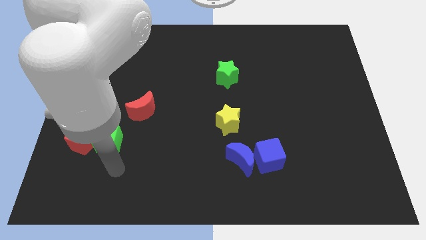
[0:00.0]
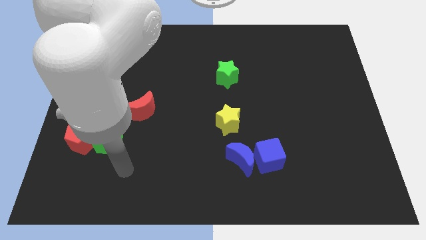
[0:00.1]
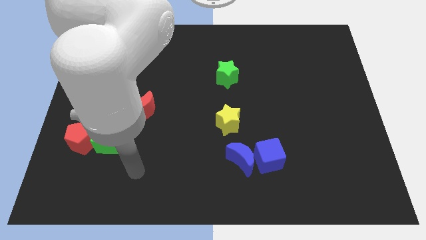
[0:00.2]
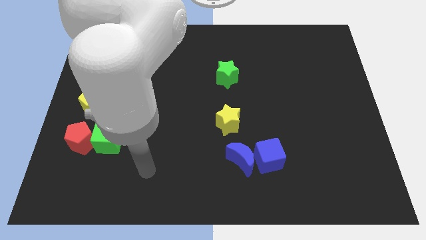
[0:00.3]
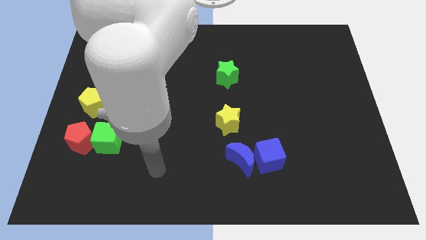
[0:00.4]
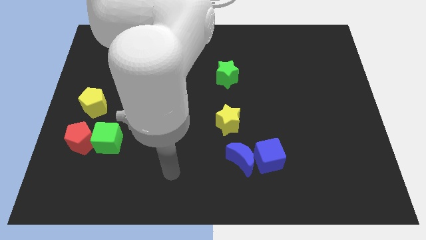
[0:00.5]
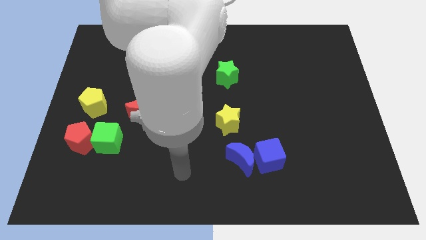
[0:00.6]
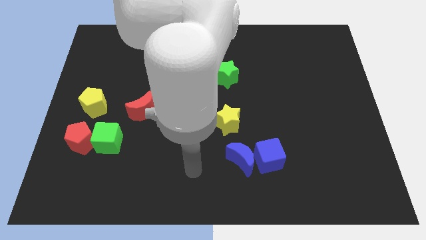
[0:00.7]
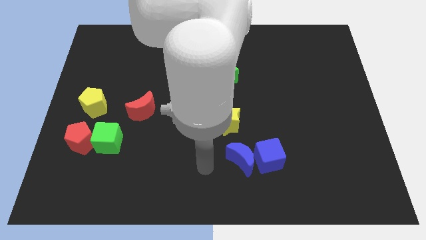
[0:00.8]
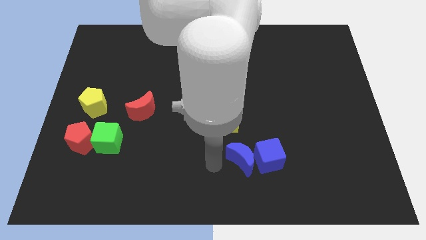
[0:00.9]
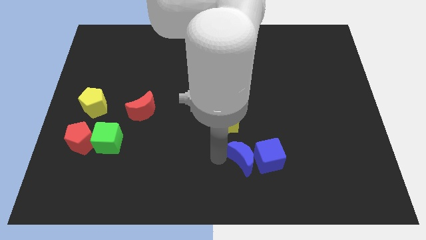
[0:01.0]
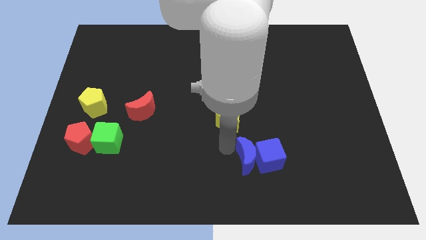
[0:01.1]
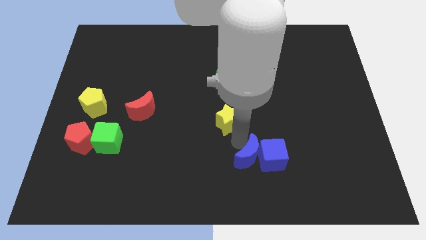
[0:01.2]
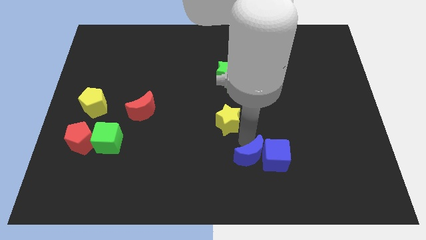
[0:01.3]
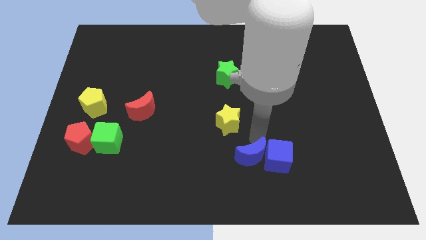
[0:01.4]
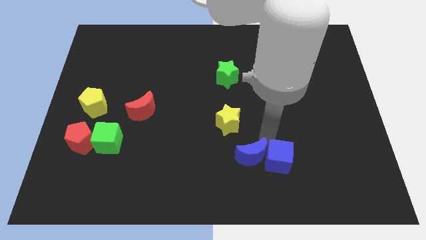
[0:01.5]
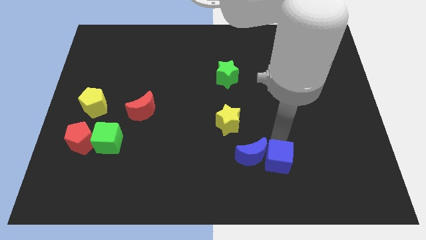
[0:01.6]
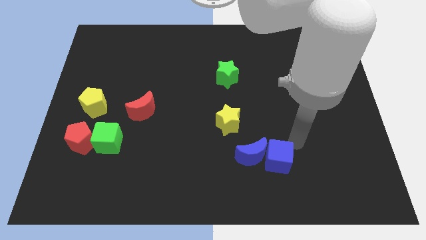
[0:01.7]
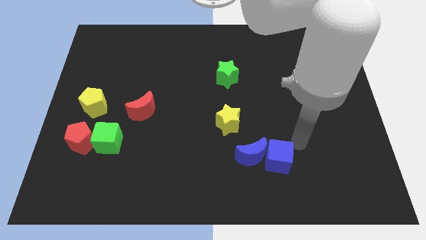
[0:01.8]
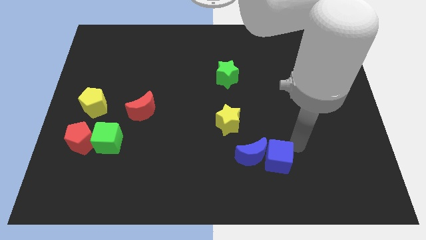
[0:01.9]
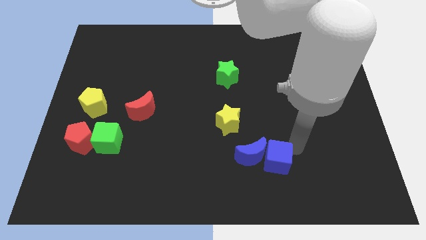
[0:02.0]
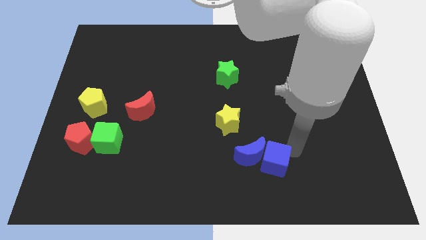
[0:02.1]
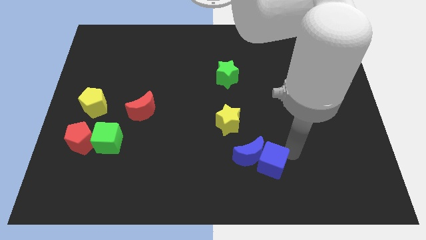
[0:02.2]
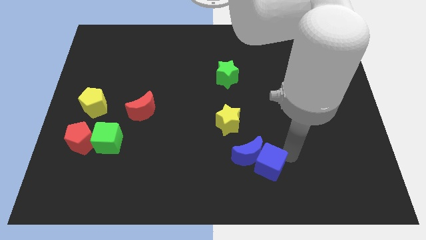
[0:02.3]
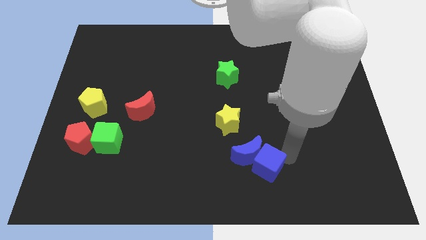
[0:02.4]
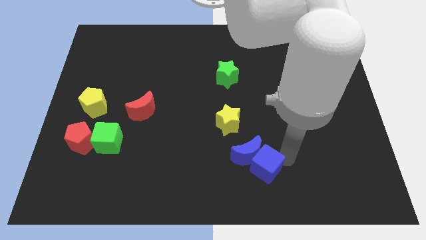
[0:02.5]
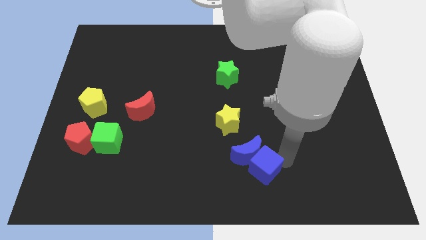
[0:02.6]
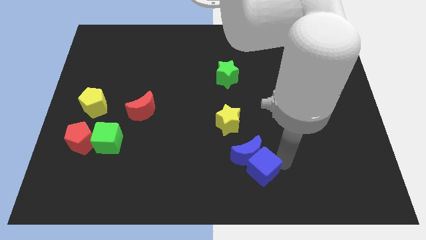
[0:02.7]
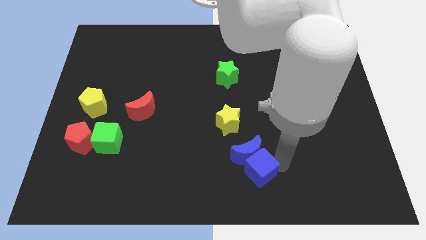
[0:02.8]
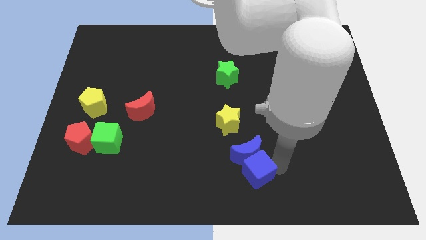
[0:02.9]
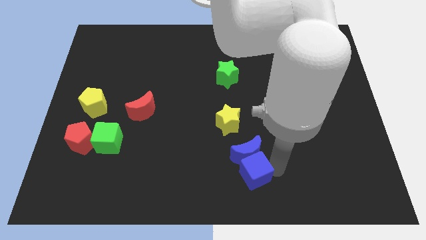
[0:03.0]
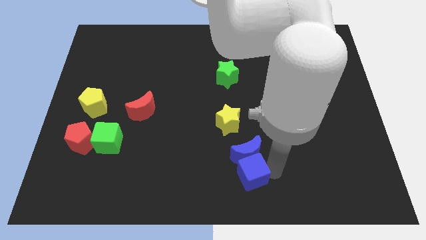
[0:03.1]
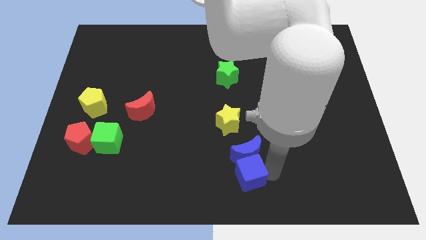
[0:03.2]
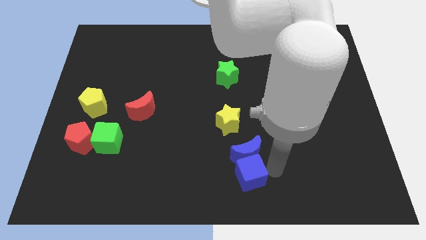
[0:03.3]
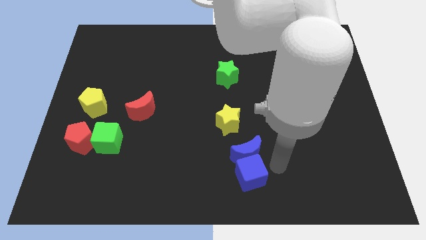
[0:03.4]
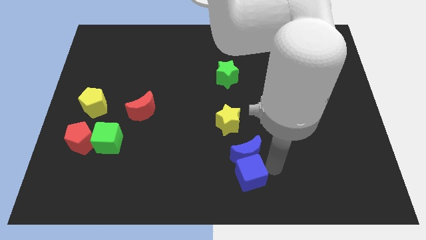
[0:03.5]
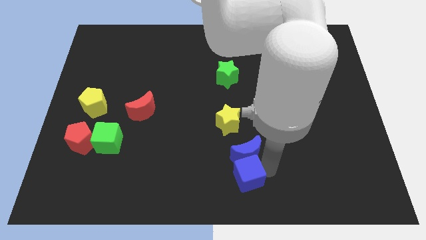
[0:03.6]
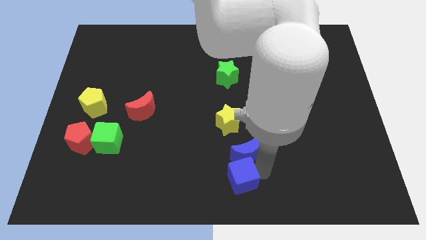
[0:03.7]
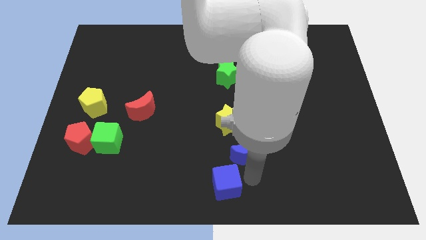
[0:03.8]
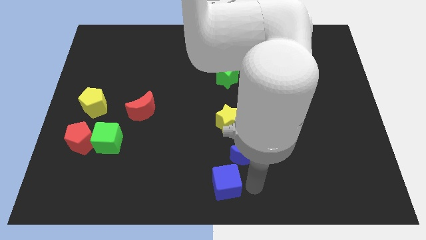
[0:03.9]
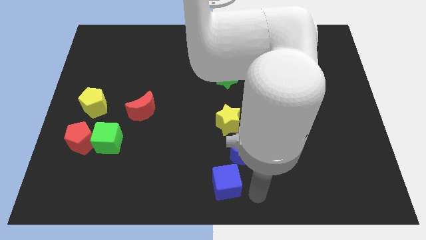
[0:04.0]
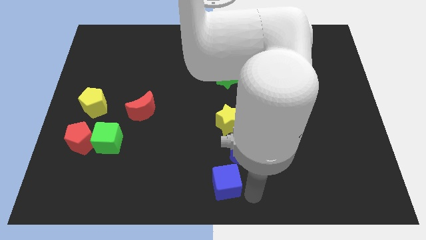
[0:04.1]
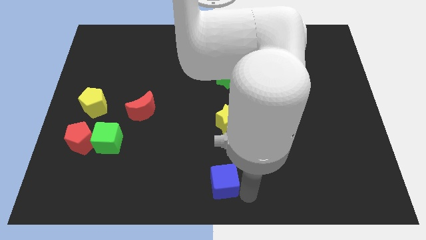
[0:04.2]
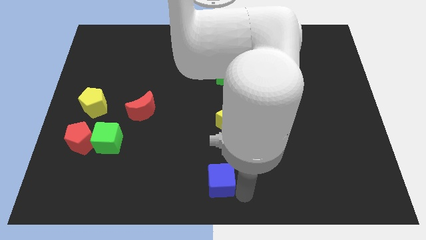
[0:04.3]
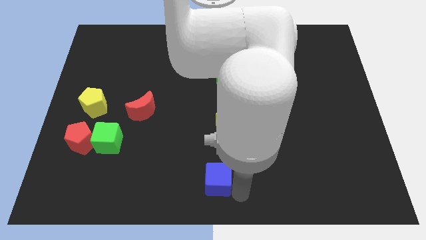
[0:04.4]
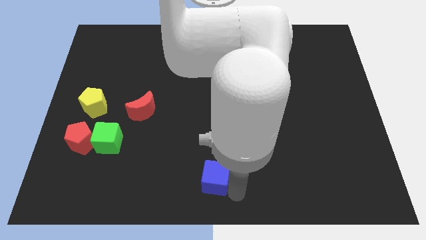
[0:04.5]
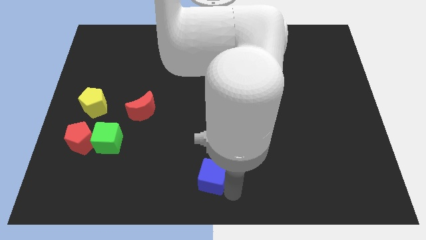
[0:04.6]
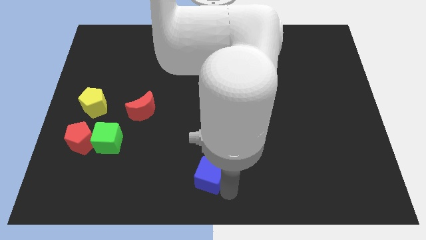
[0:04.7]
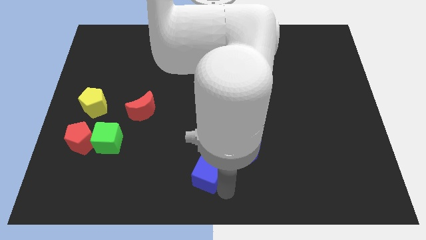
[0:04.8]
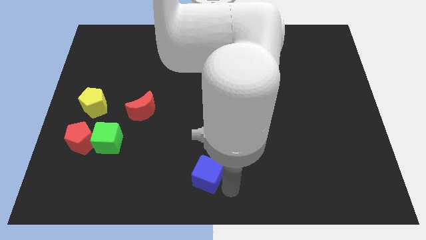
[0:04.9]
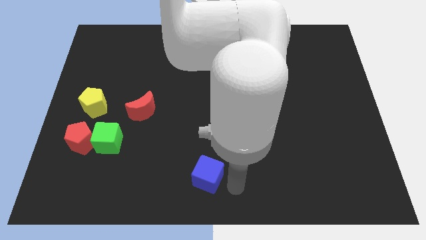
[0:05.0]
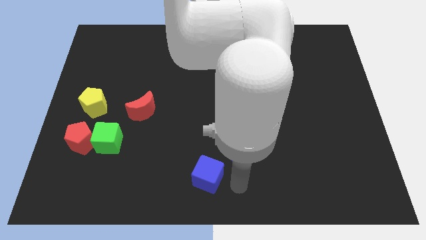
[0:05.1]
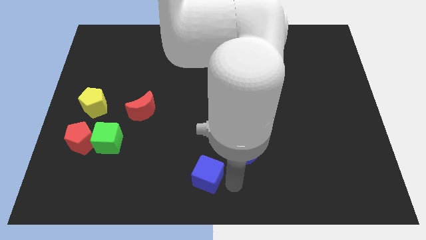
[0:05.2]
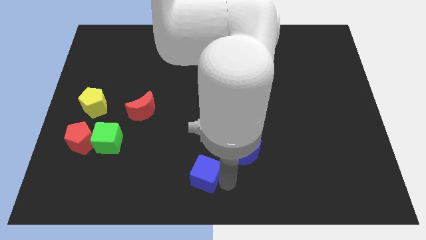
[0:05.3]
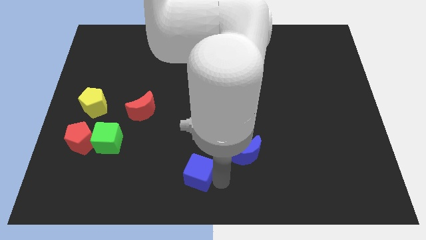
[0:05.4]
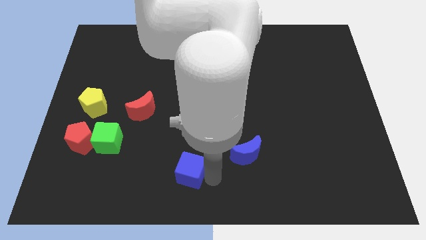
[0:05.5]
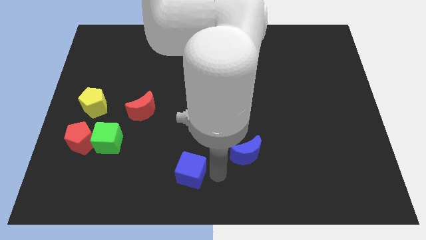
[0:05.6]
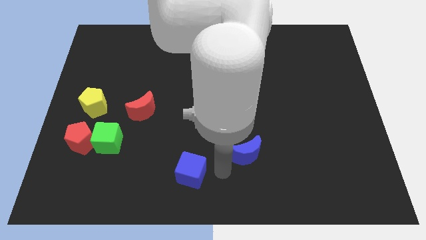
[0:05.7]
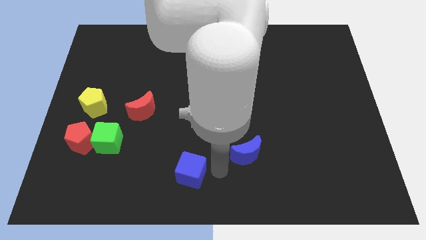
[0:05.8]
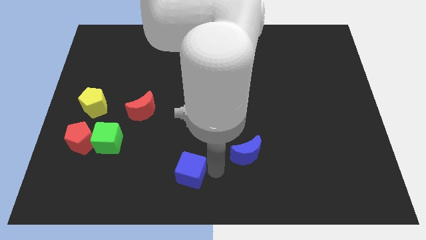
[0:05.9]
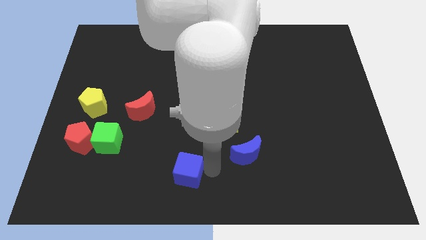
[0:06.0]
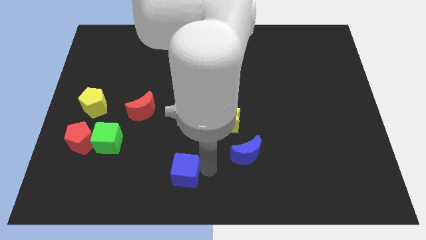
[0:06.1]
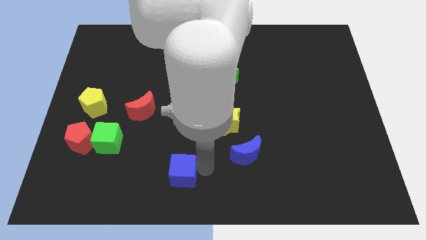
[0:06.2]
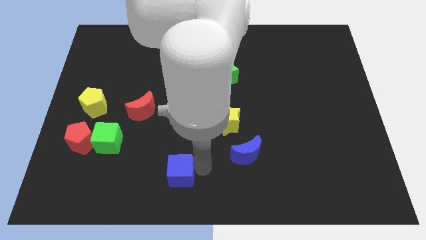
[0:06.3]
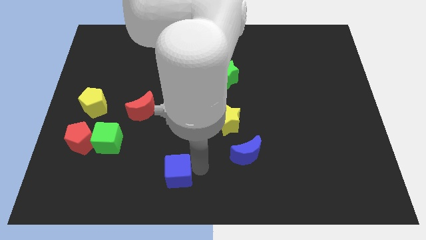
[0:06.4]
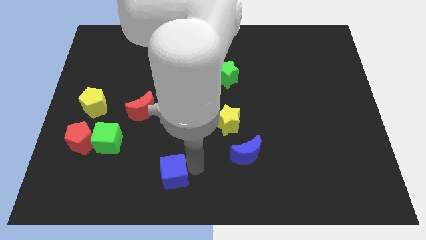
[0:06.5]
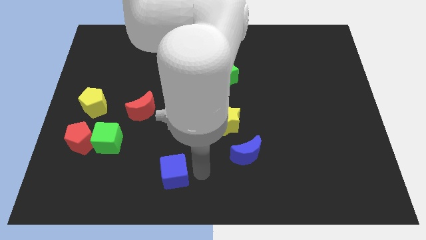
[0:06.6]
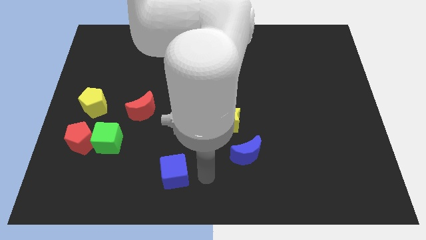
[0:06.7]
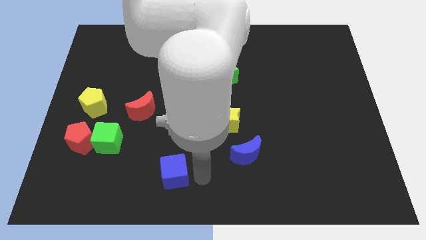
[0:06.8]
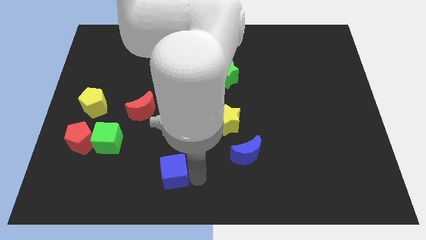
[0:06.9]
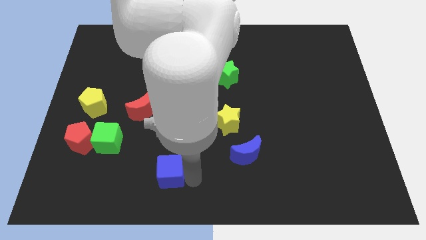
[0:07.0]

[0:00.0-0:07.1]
move the blue cube left

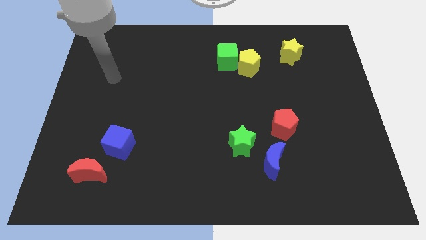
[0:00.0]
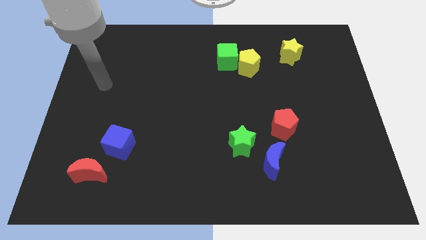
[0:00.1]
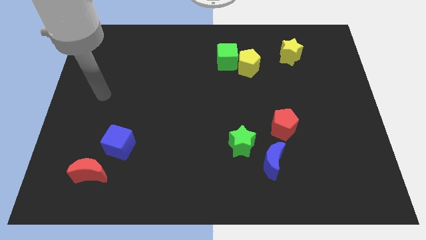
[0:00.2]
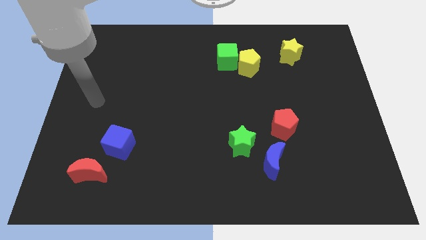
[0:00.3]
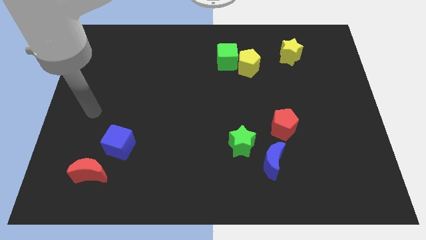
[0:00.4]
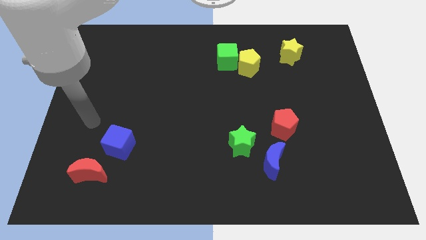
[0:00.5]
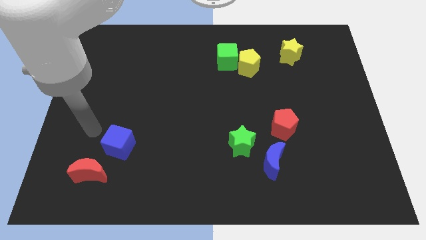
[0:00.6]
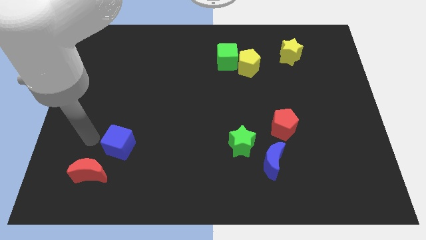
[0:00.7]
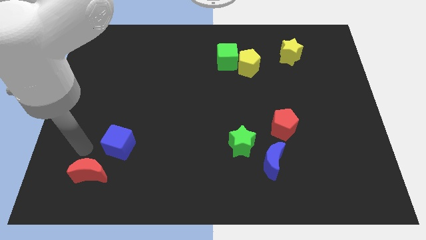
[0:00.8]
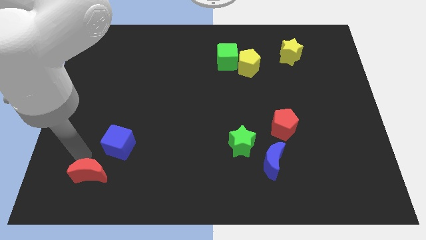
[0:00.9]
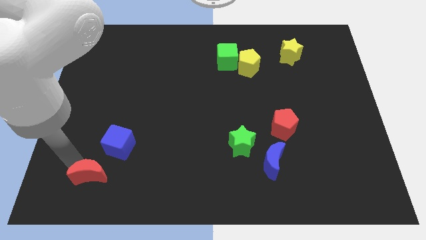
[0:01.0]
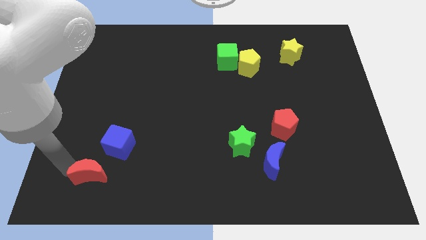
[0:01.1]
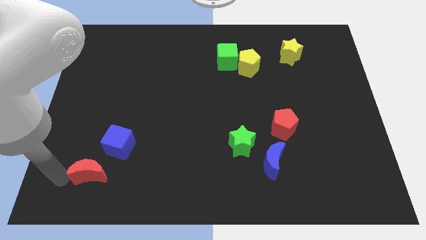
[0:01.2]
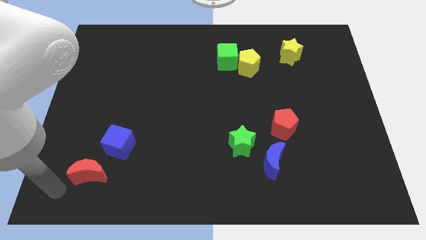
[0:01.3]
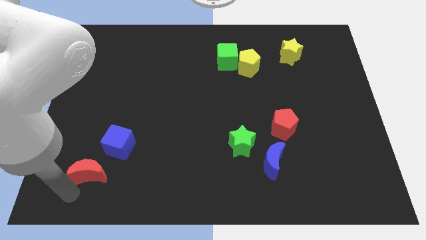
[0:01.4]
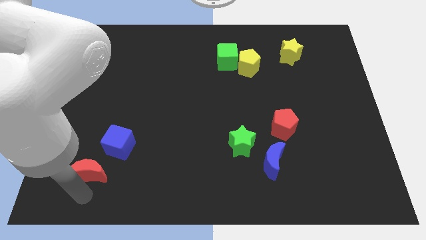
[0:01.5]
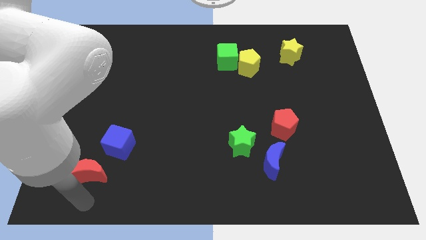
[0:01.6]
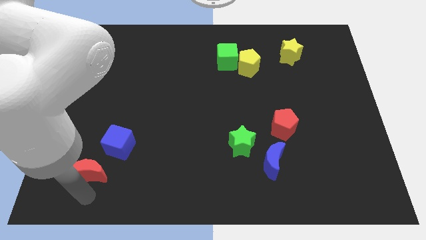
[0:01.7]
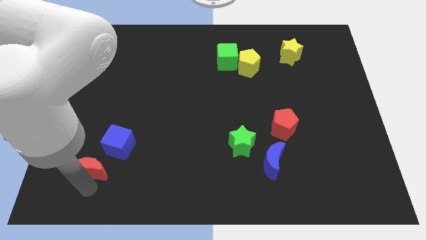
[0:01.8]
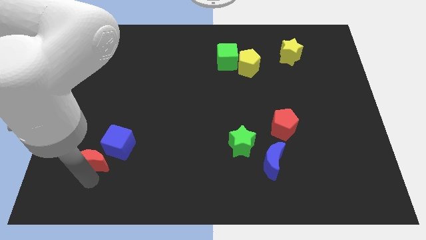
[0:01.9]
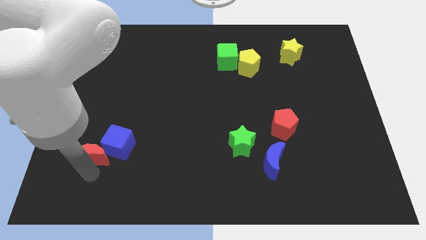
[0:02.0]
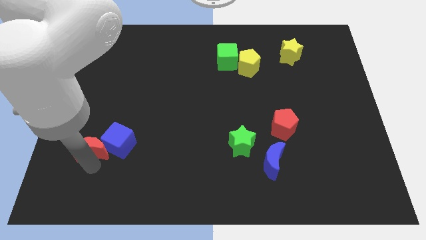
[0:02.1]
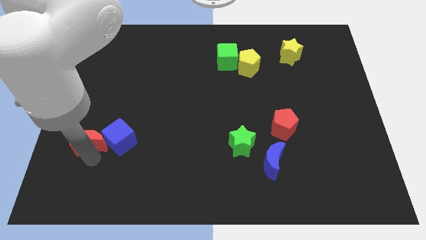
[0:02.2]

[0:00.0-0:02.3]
move the red moon somewhat upwards
